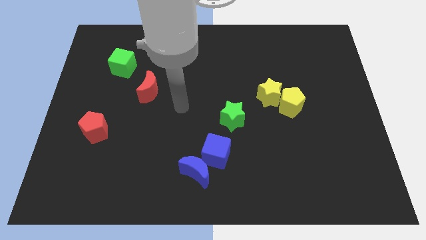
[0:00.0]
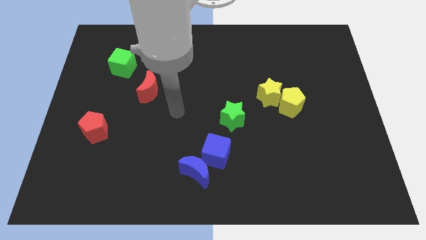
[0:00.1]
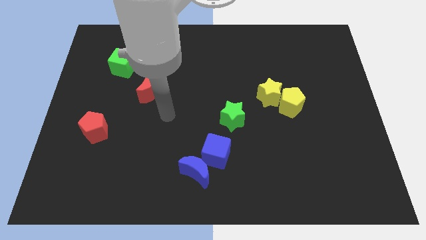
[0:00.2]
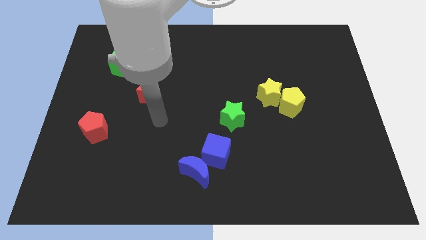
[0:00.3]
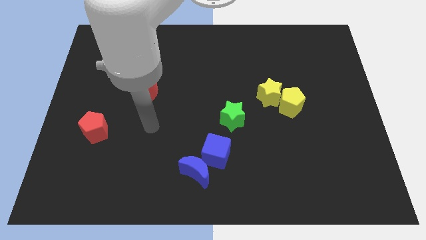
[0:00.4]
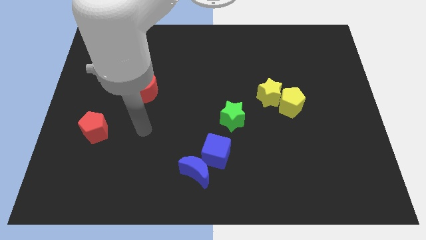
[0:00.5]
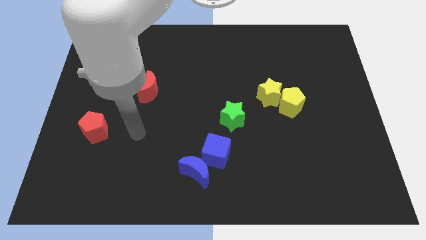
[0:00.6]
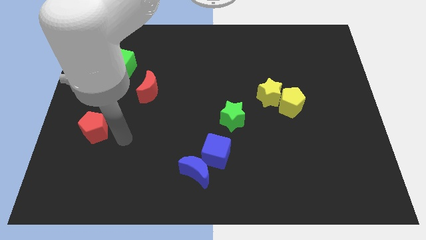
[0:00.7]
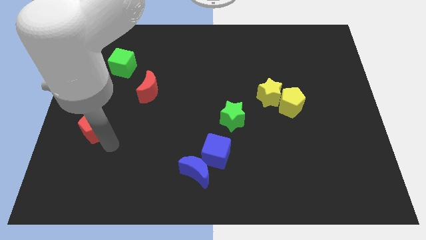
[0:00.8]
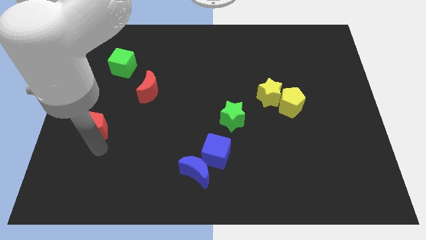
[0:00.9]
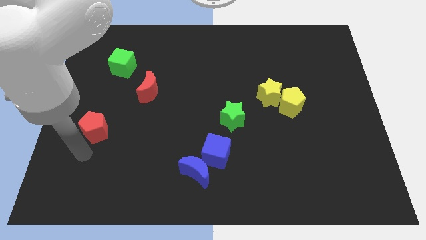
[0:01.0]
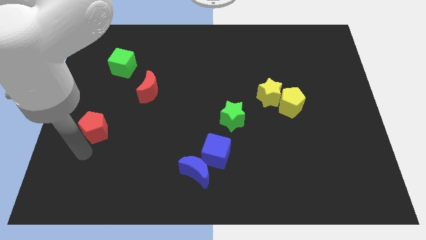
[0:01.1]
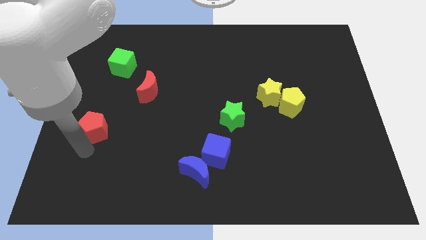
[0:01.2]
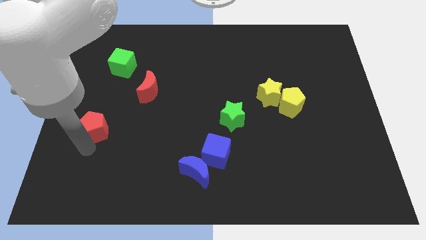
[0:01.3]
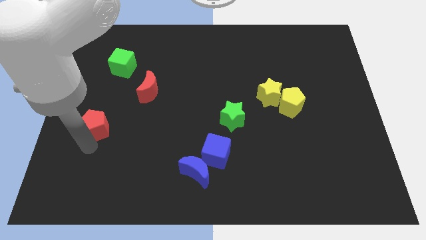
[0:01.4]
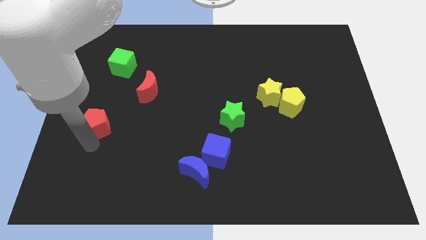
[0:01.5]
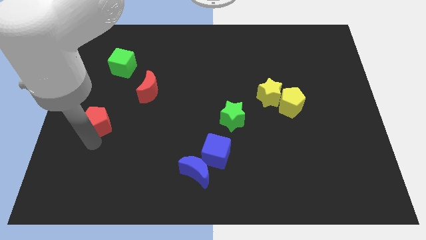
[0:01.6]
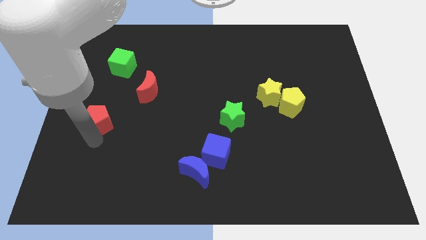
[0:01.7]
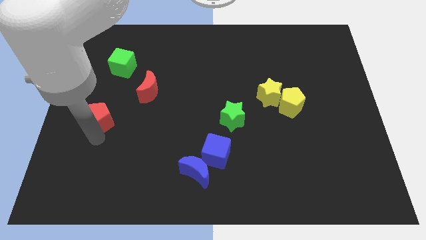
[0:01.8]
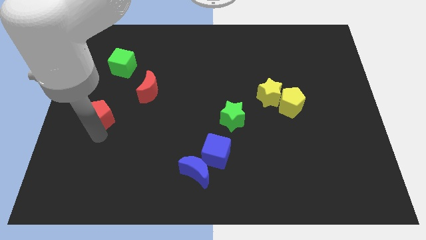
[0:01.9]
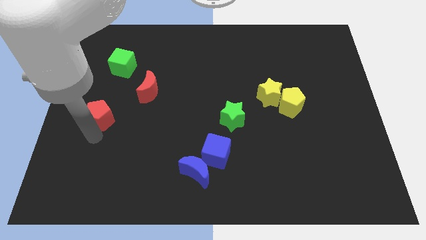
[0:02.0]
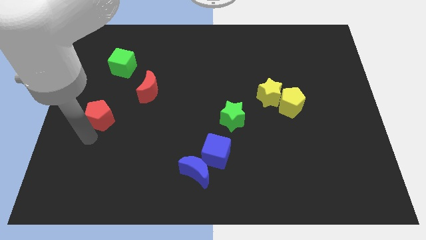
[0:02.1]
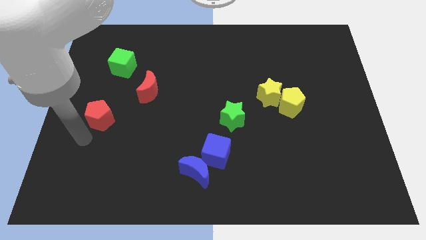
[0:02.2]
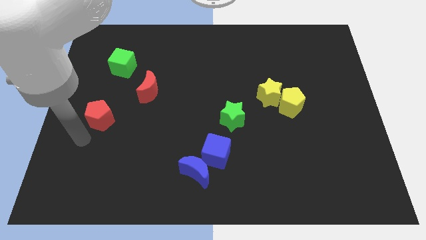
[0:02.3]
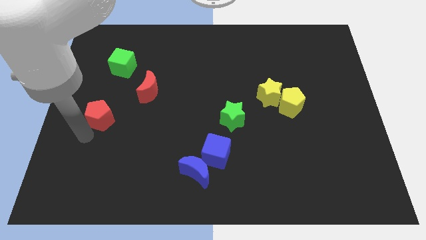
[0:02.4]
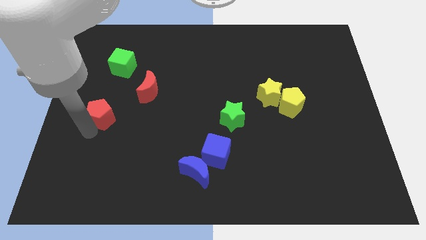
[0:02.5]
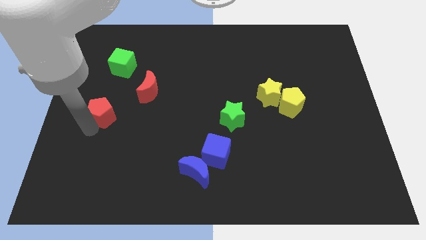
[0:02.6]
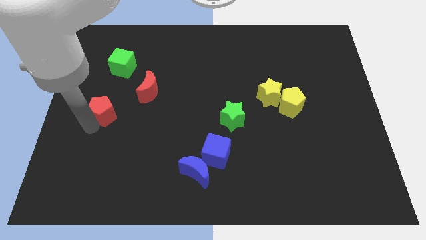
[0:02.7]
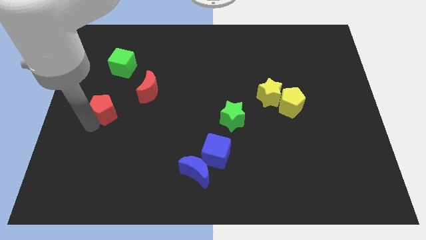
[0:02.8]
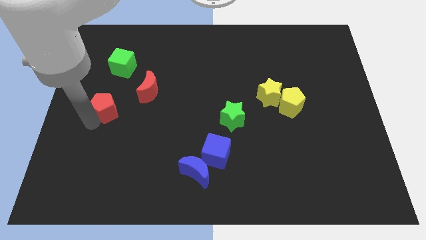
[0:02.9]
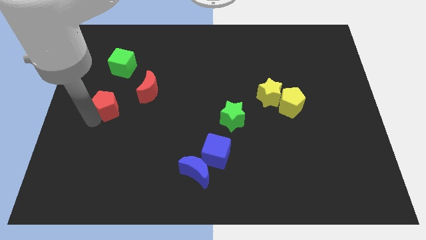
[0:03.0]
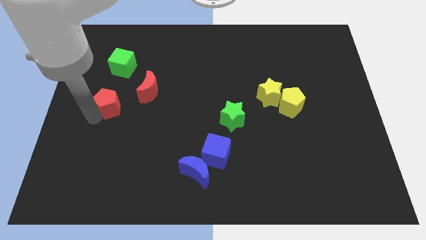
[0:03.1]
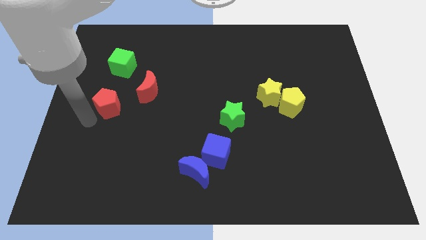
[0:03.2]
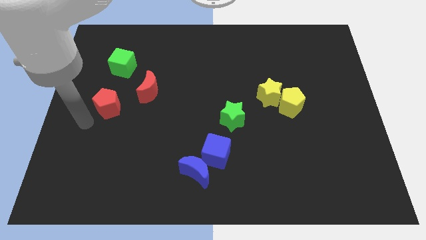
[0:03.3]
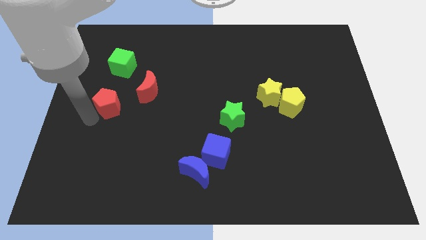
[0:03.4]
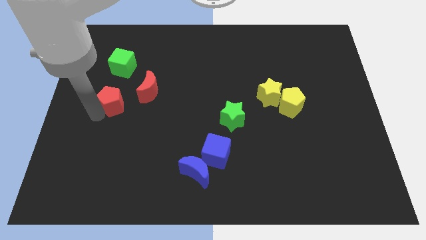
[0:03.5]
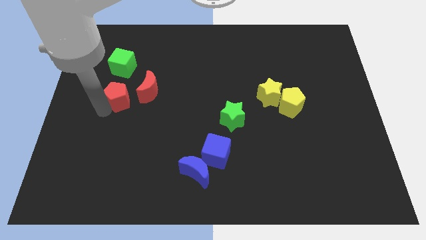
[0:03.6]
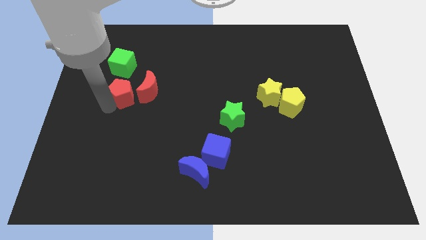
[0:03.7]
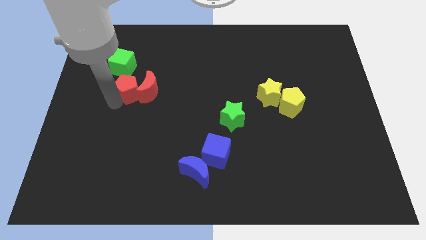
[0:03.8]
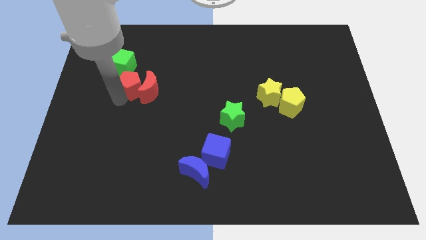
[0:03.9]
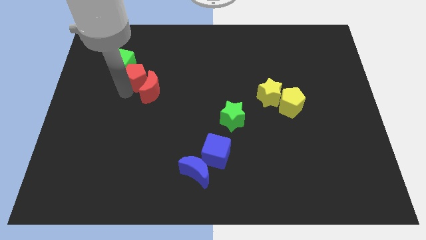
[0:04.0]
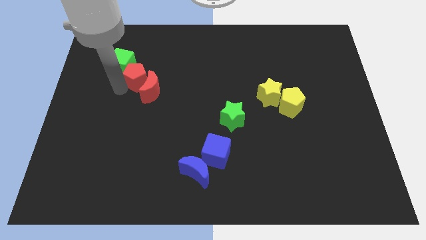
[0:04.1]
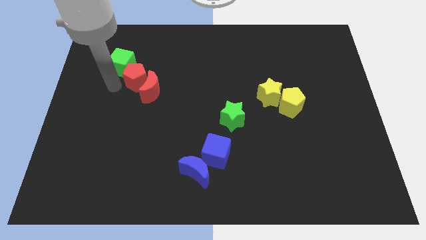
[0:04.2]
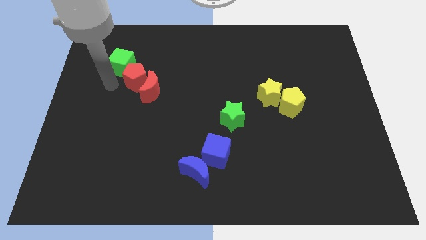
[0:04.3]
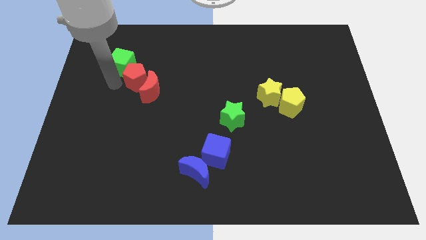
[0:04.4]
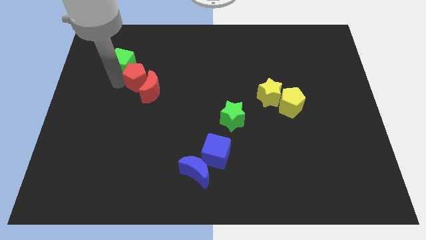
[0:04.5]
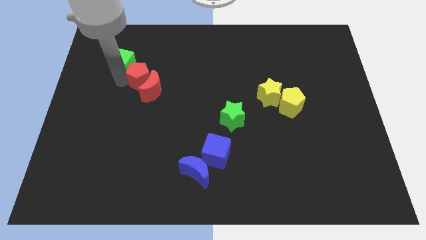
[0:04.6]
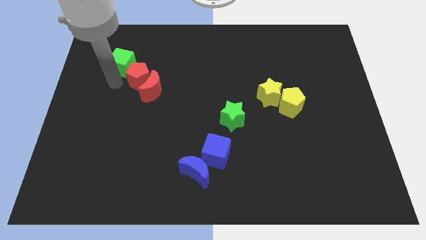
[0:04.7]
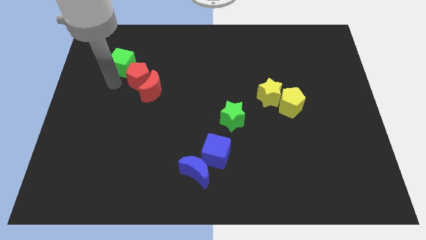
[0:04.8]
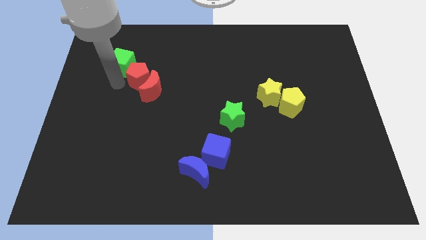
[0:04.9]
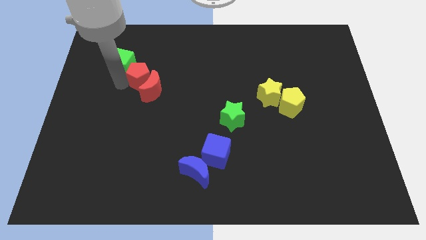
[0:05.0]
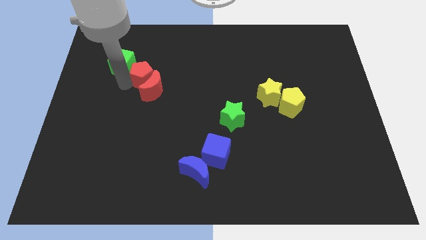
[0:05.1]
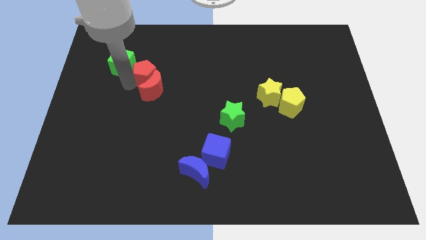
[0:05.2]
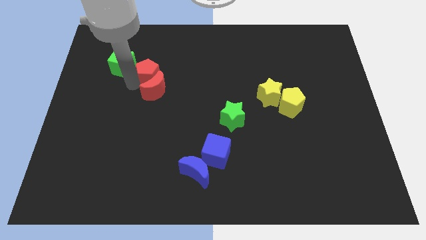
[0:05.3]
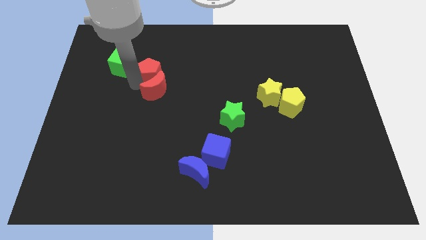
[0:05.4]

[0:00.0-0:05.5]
push the red pentagon diagonally up and to the right of the red moon

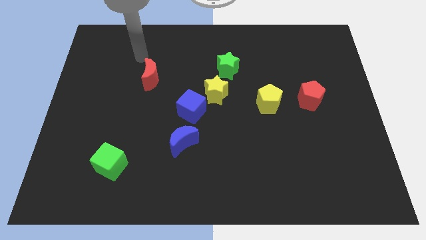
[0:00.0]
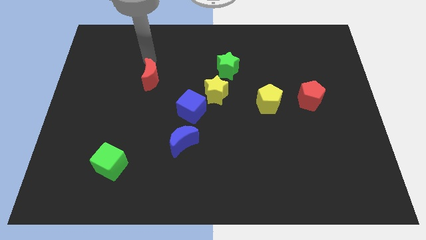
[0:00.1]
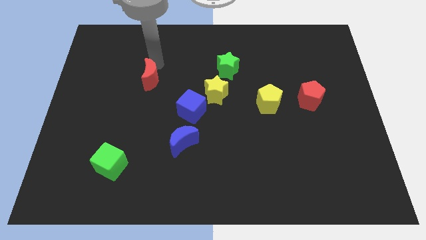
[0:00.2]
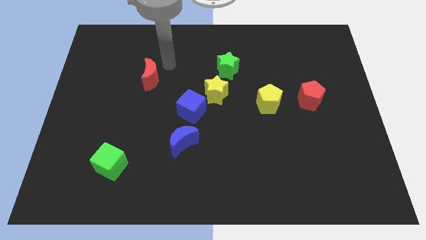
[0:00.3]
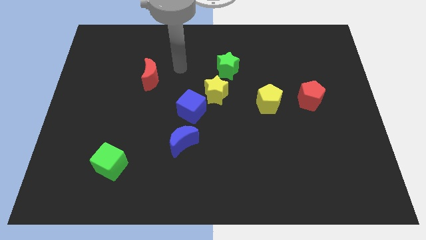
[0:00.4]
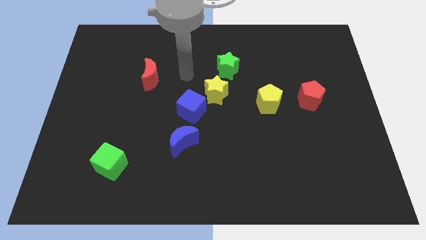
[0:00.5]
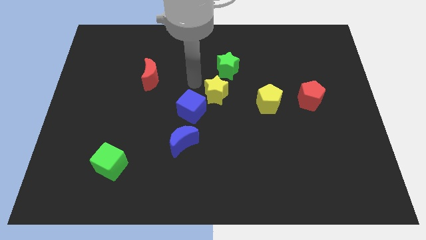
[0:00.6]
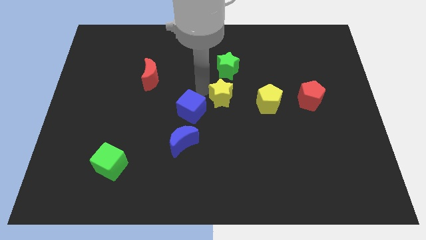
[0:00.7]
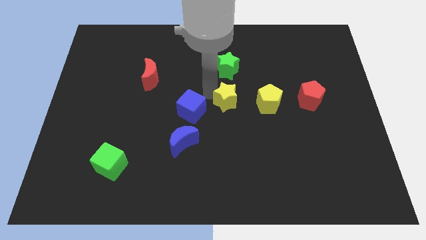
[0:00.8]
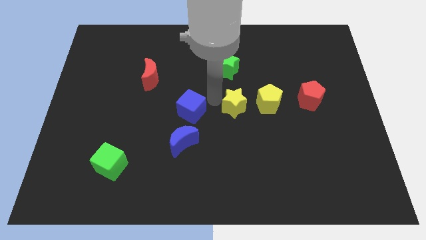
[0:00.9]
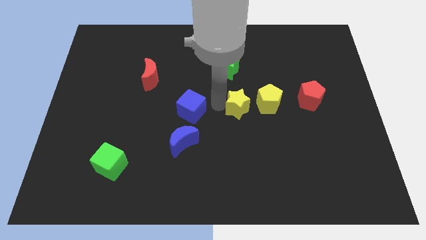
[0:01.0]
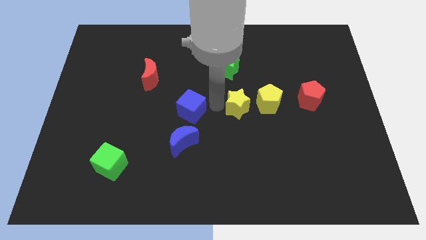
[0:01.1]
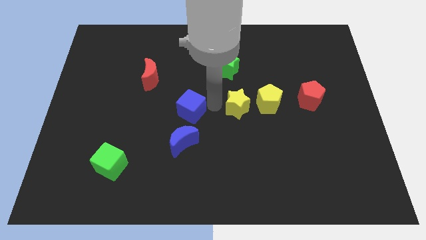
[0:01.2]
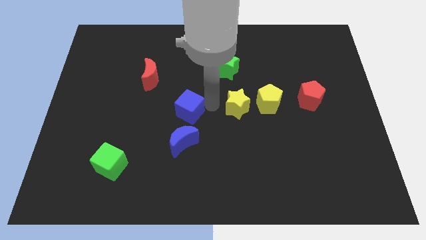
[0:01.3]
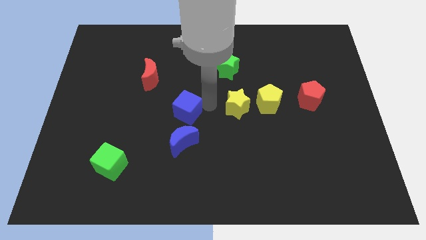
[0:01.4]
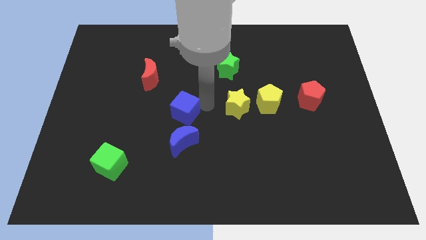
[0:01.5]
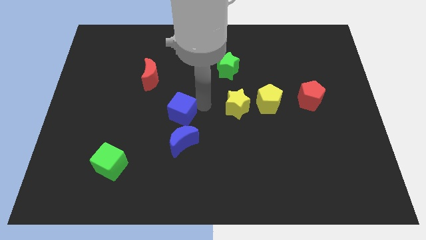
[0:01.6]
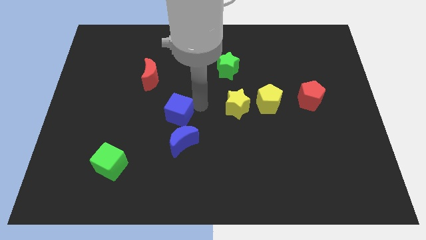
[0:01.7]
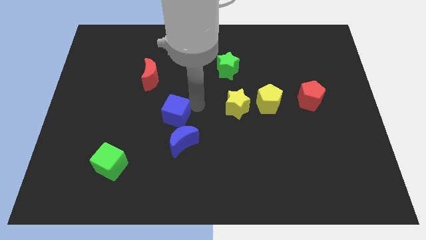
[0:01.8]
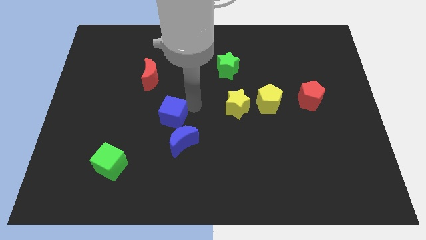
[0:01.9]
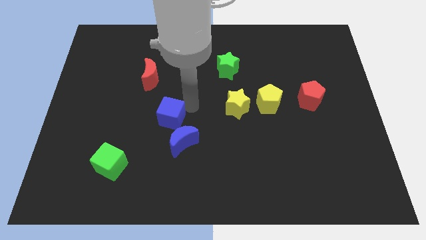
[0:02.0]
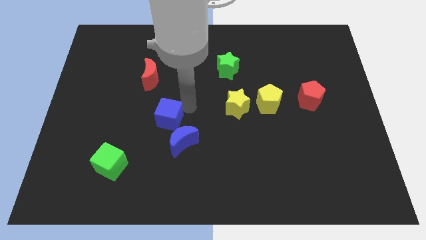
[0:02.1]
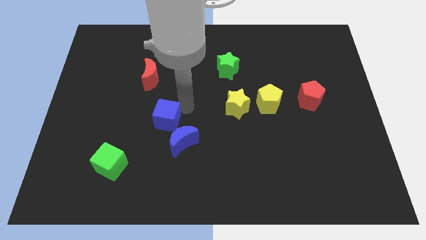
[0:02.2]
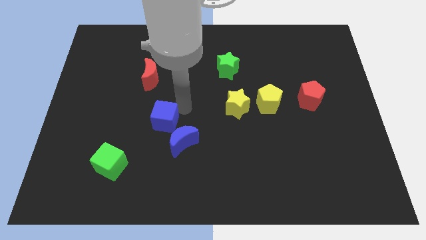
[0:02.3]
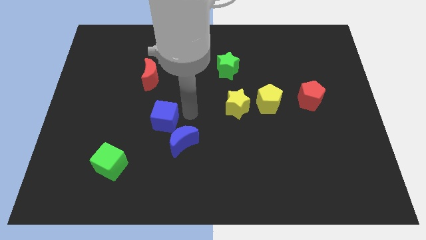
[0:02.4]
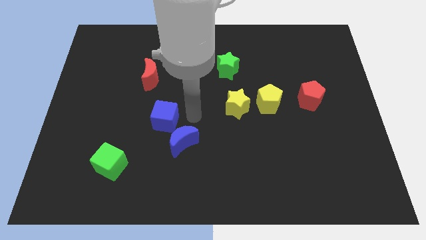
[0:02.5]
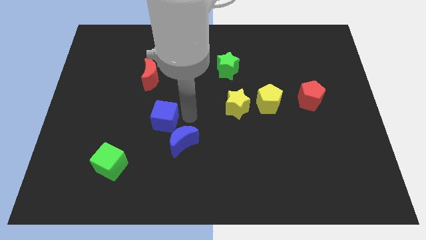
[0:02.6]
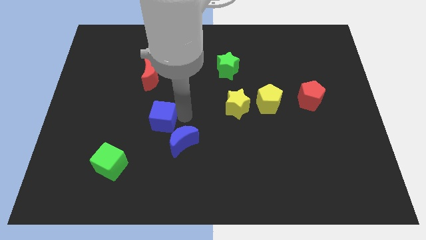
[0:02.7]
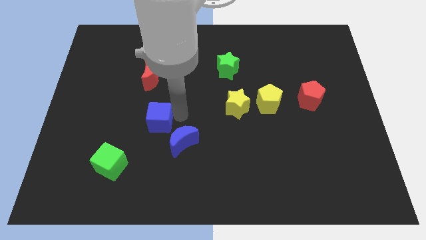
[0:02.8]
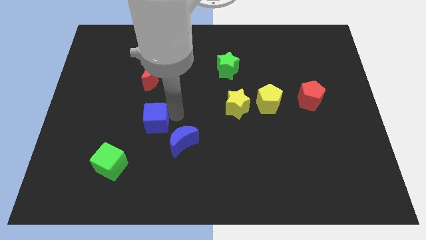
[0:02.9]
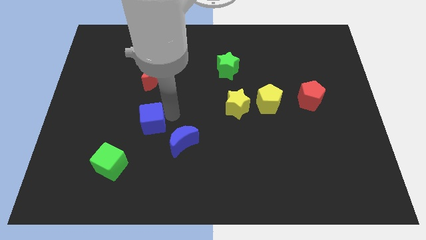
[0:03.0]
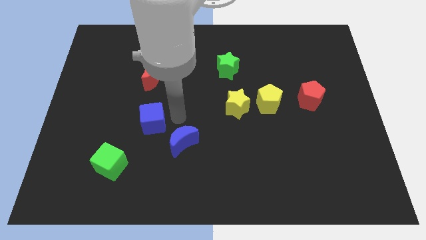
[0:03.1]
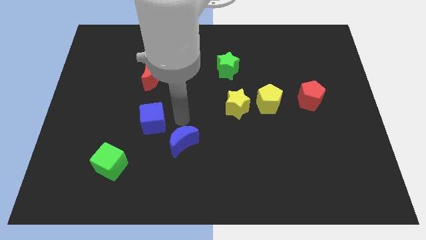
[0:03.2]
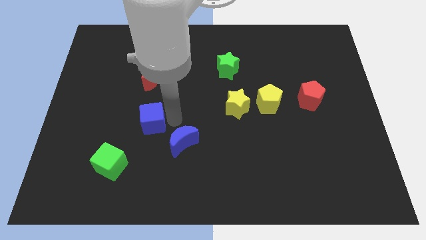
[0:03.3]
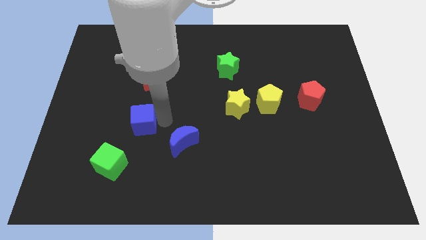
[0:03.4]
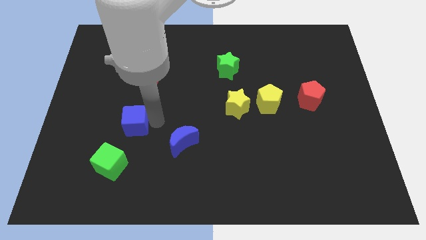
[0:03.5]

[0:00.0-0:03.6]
push the blue cube above the green cube
